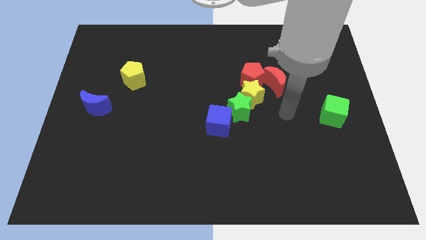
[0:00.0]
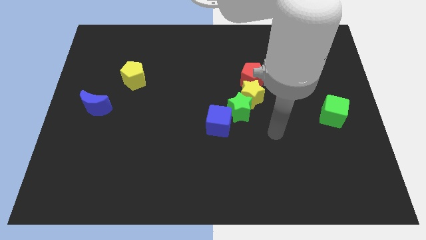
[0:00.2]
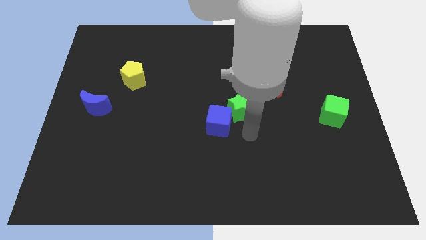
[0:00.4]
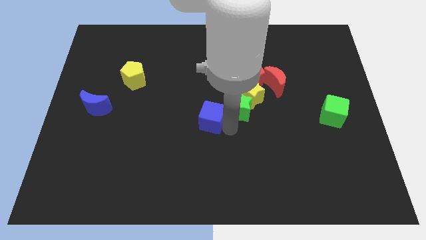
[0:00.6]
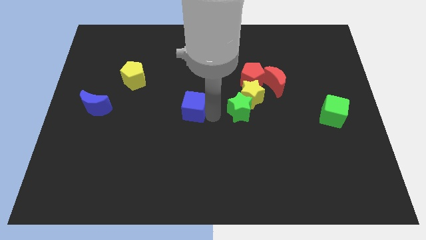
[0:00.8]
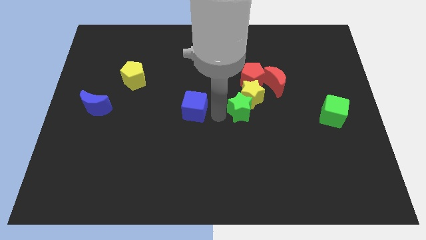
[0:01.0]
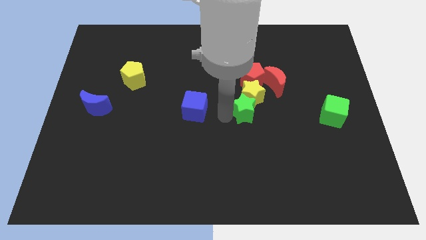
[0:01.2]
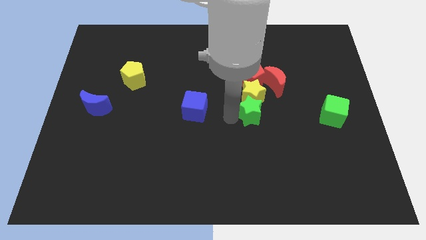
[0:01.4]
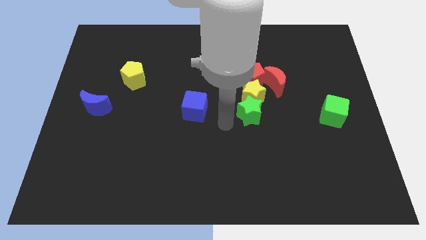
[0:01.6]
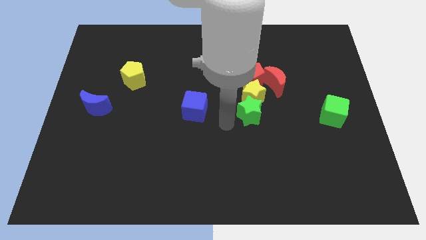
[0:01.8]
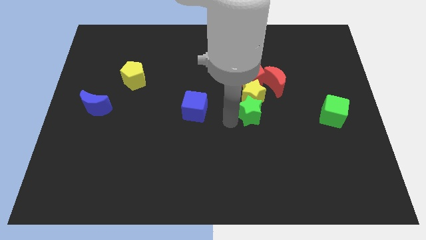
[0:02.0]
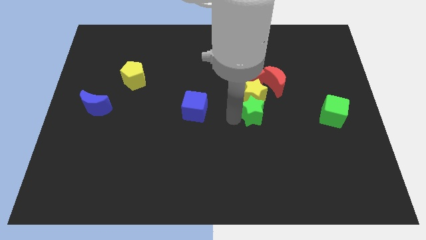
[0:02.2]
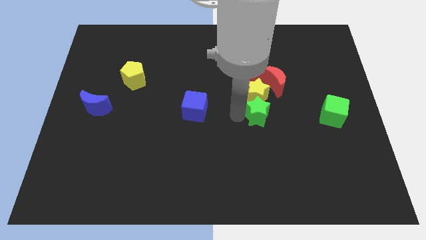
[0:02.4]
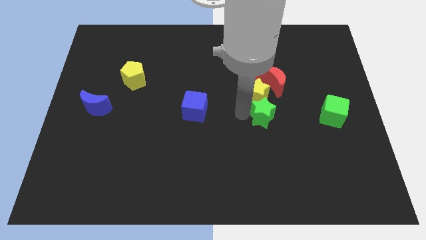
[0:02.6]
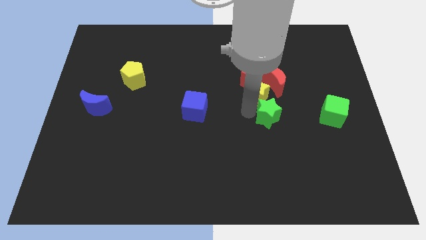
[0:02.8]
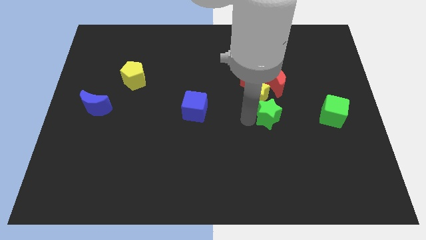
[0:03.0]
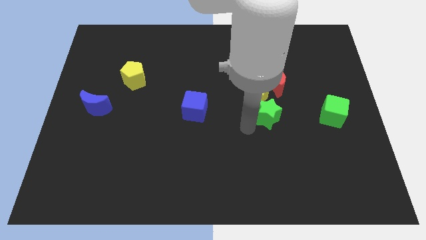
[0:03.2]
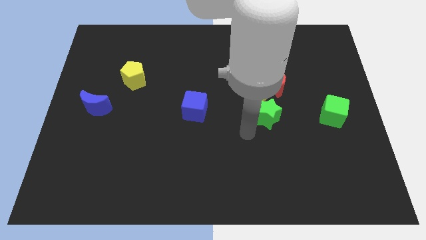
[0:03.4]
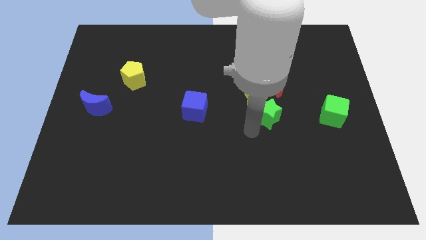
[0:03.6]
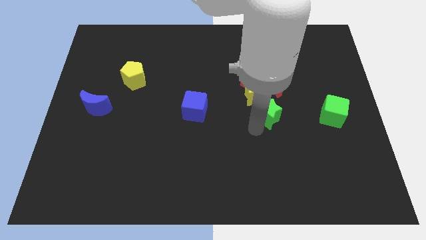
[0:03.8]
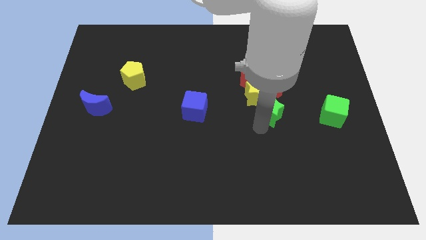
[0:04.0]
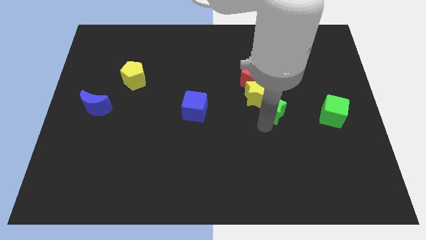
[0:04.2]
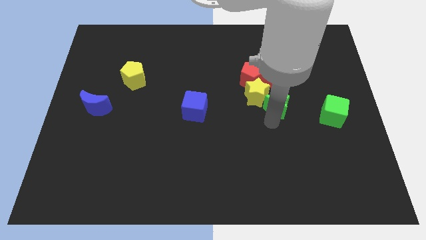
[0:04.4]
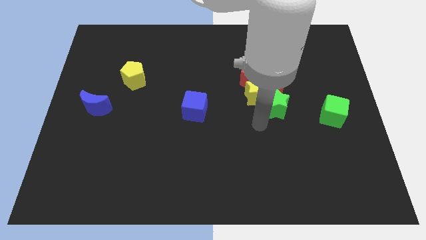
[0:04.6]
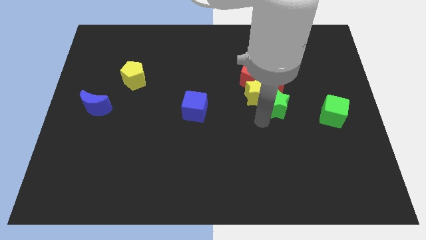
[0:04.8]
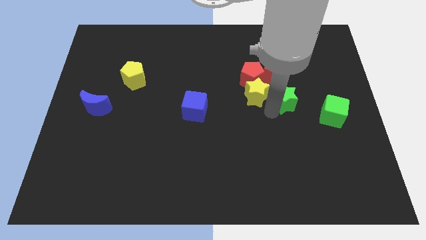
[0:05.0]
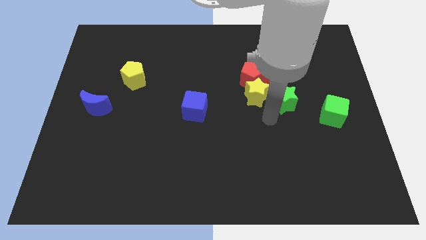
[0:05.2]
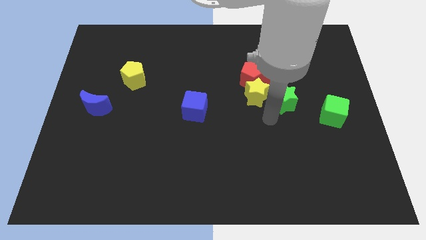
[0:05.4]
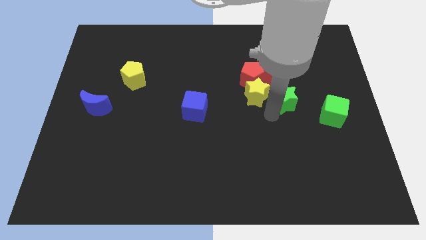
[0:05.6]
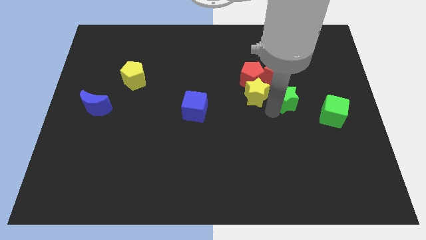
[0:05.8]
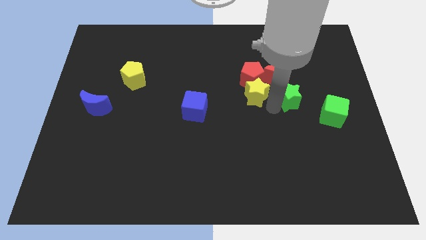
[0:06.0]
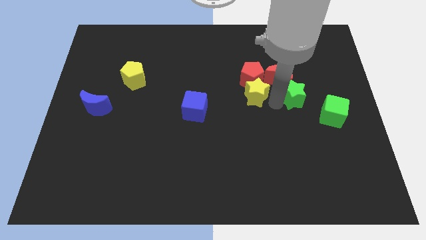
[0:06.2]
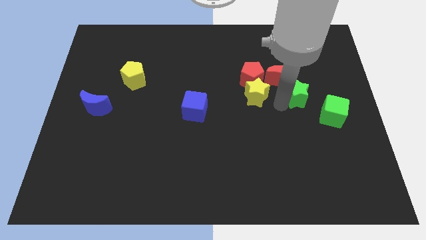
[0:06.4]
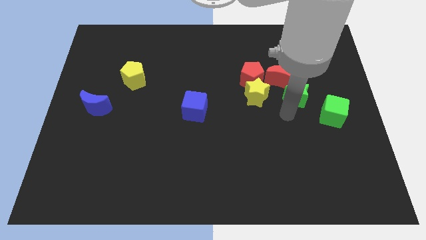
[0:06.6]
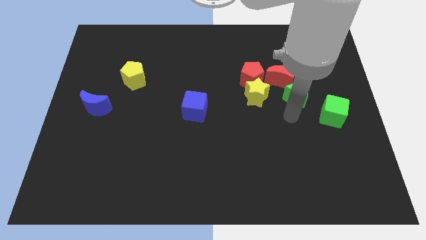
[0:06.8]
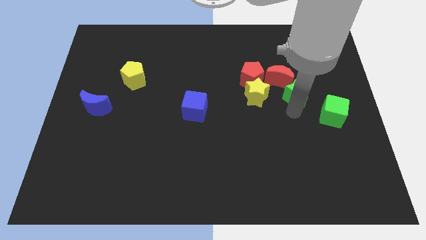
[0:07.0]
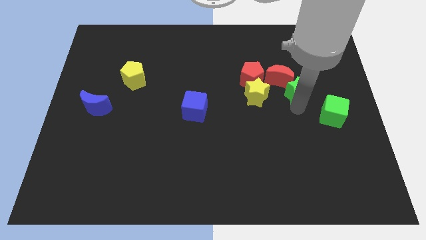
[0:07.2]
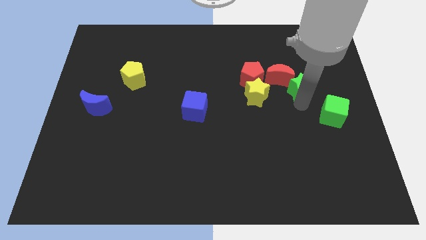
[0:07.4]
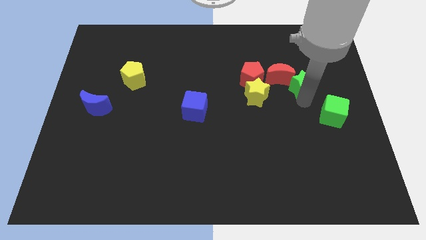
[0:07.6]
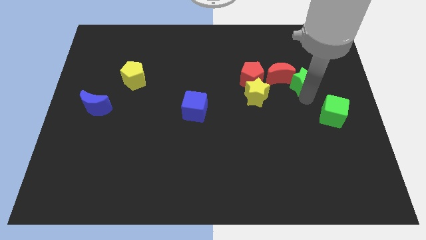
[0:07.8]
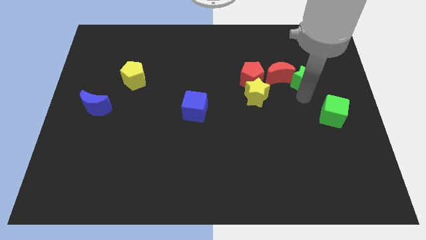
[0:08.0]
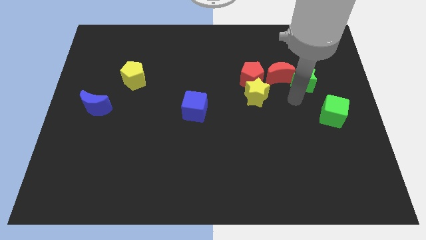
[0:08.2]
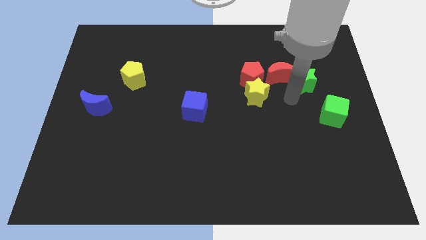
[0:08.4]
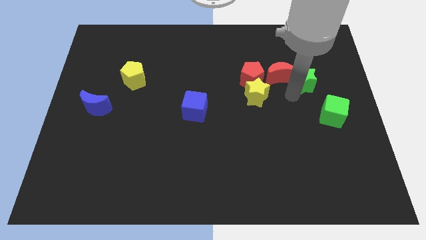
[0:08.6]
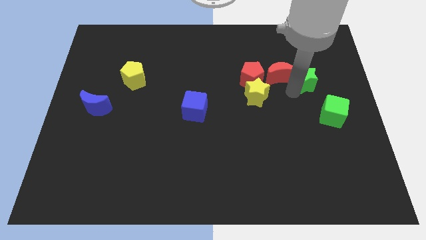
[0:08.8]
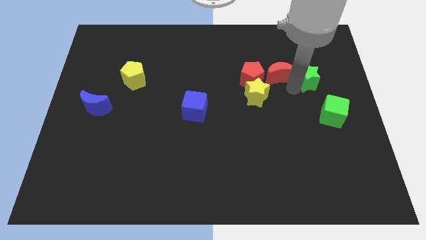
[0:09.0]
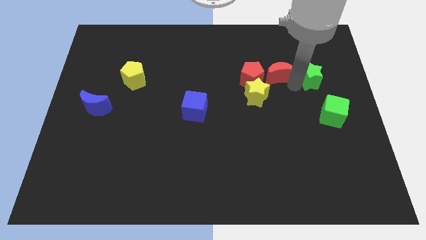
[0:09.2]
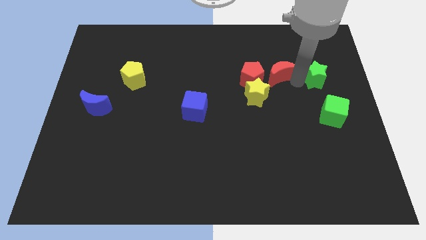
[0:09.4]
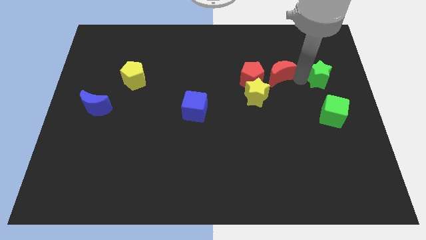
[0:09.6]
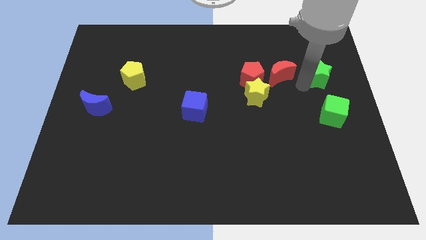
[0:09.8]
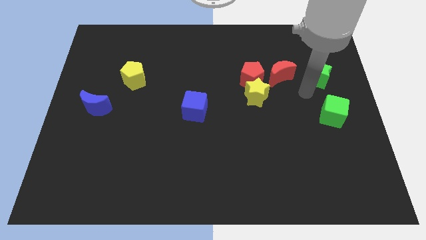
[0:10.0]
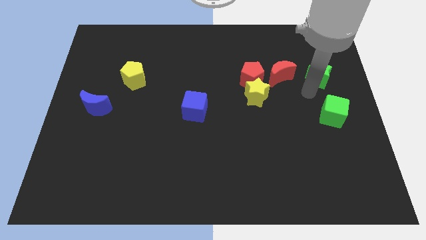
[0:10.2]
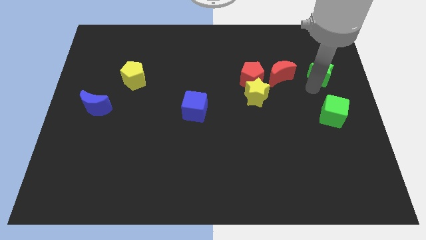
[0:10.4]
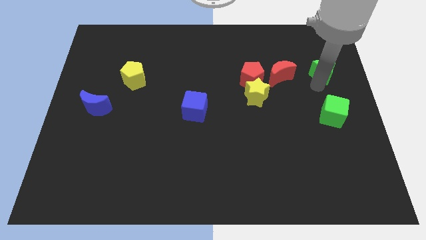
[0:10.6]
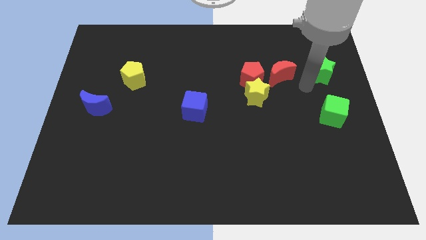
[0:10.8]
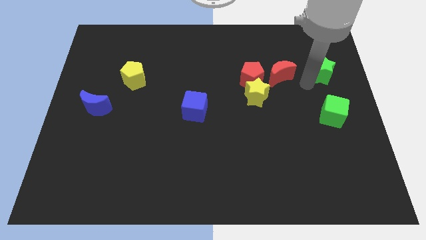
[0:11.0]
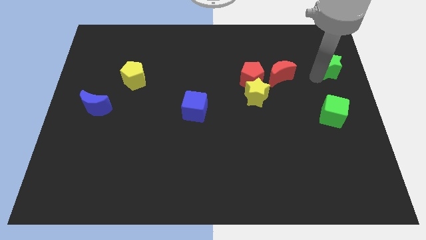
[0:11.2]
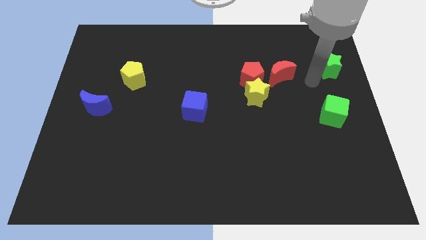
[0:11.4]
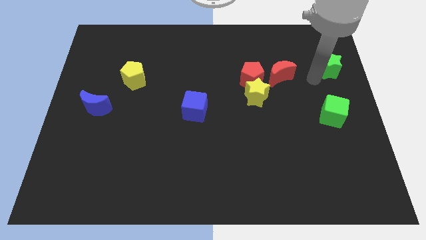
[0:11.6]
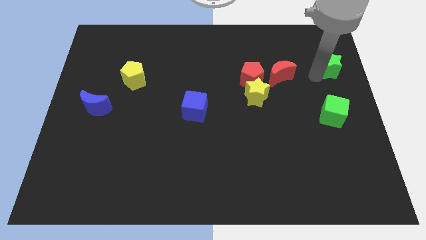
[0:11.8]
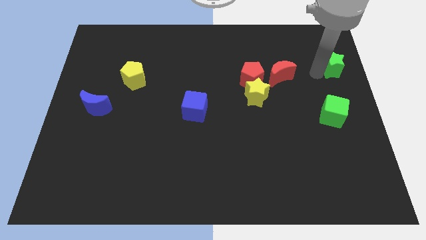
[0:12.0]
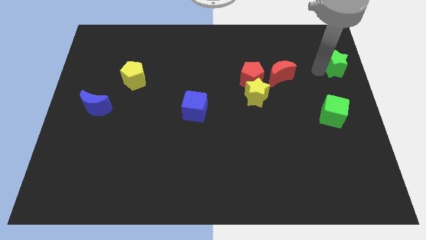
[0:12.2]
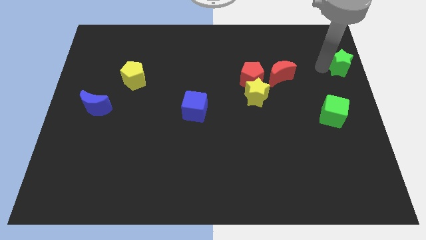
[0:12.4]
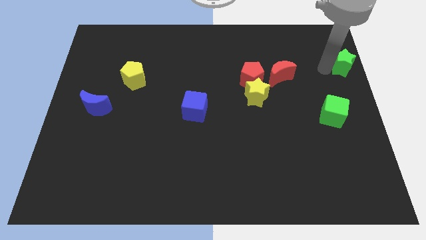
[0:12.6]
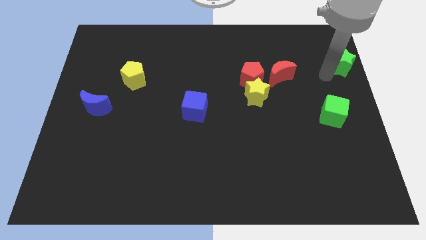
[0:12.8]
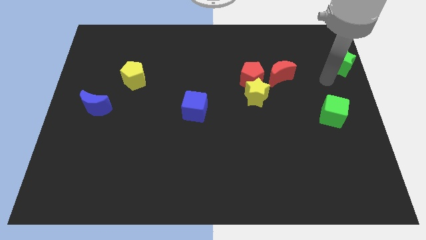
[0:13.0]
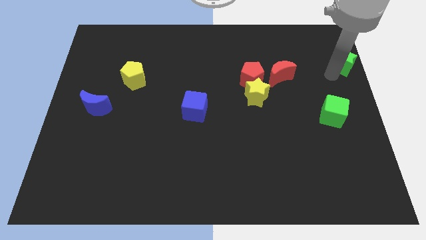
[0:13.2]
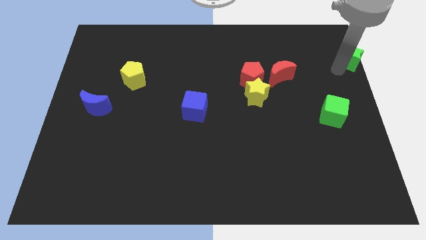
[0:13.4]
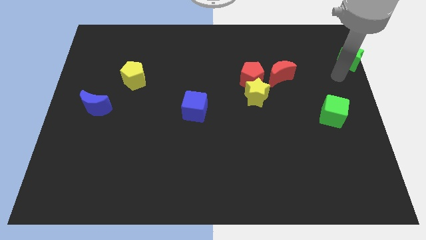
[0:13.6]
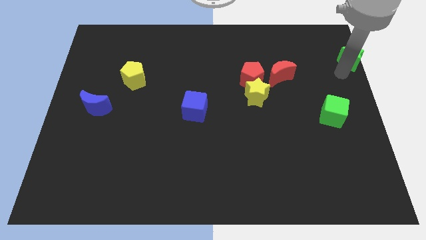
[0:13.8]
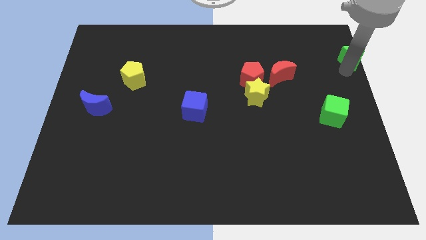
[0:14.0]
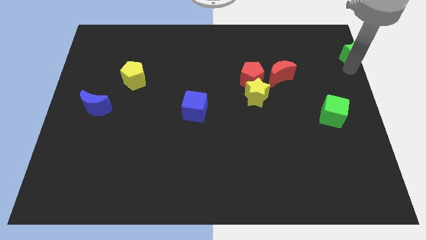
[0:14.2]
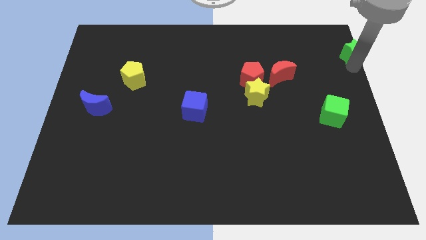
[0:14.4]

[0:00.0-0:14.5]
slide the green star to the top right corner

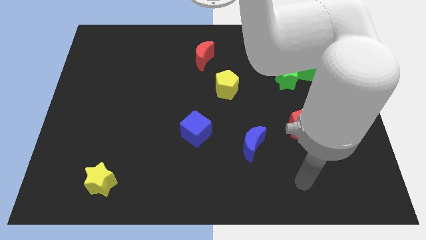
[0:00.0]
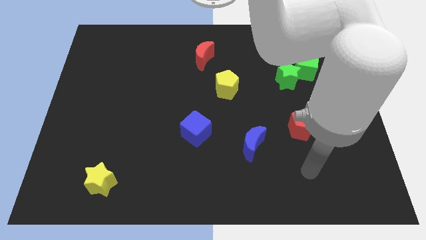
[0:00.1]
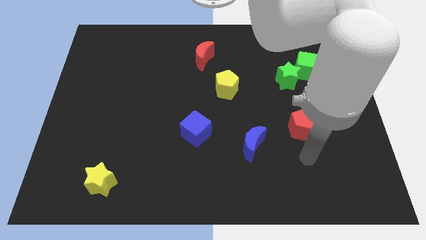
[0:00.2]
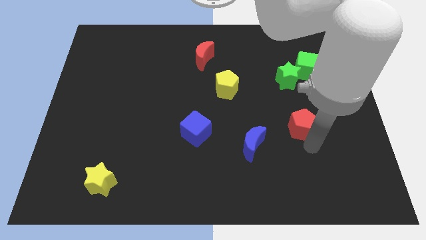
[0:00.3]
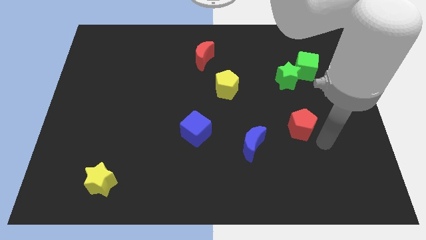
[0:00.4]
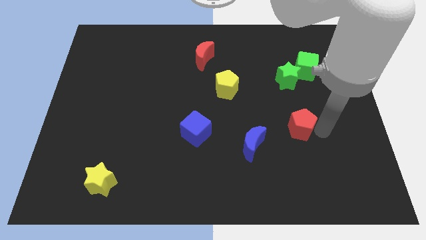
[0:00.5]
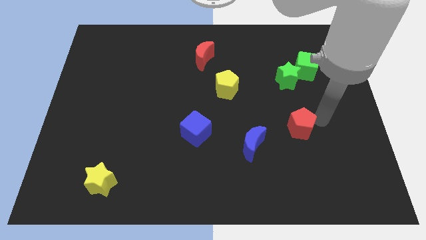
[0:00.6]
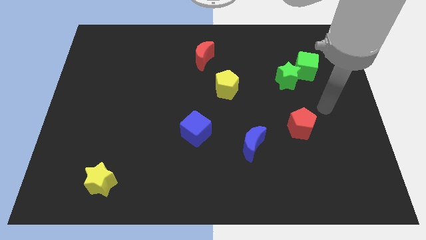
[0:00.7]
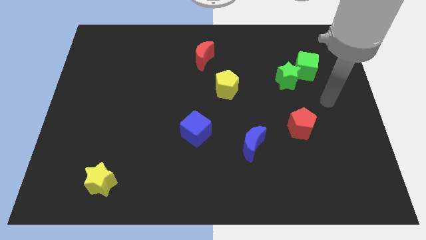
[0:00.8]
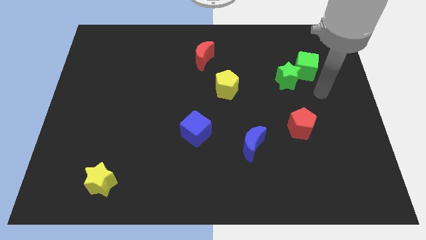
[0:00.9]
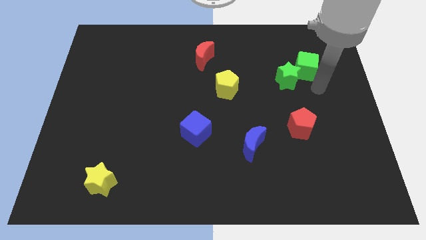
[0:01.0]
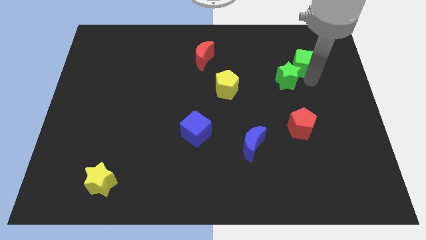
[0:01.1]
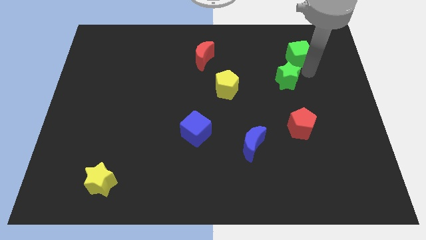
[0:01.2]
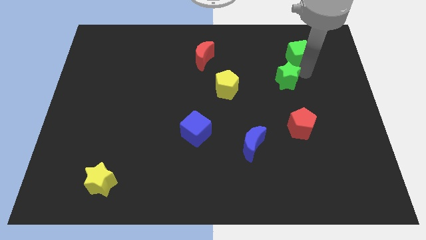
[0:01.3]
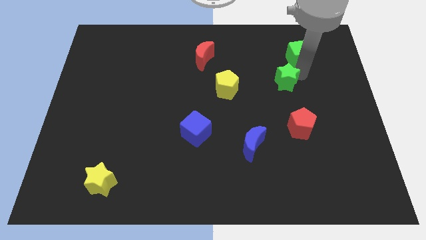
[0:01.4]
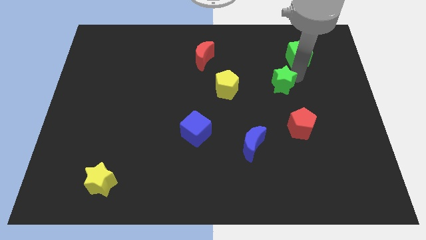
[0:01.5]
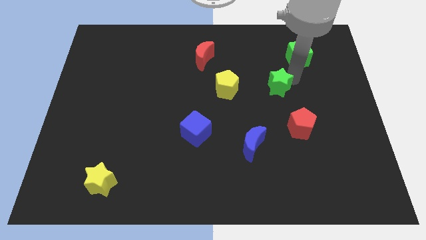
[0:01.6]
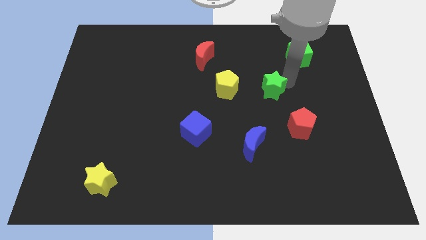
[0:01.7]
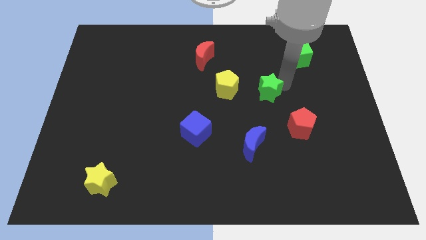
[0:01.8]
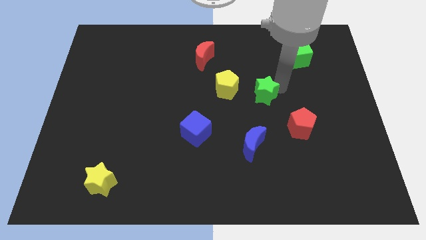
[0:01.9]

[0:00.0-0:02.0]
put the green star to the center
